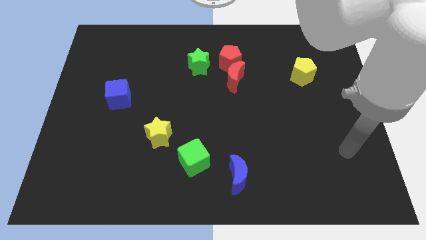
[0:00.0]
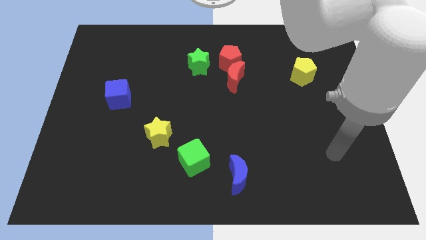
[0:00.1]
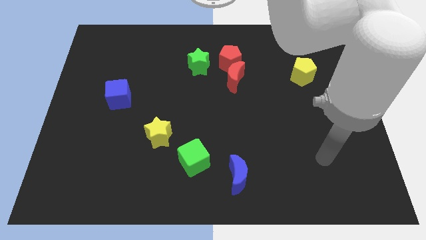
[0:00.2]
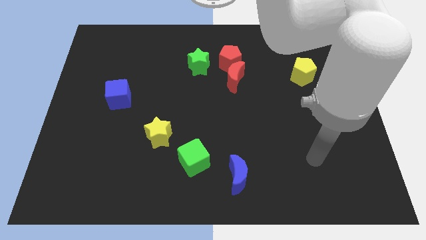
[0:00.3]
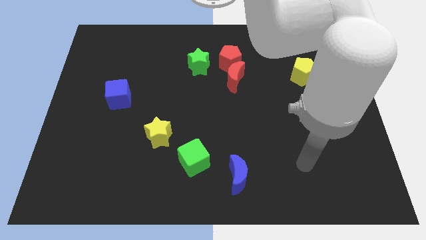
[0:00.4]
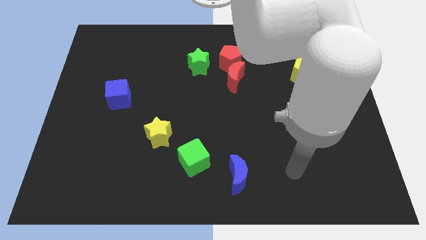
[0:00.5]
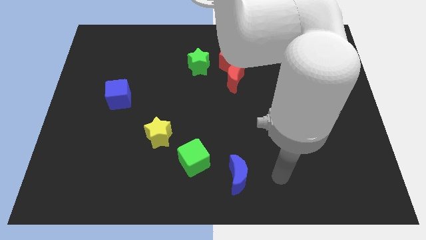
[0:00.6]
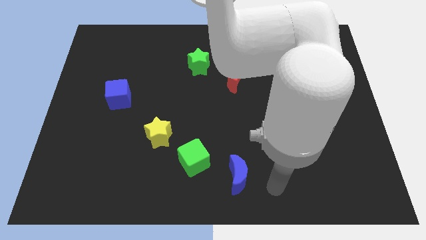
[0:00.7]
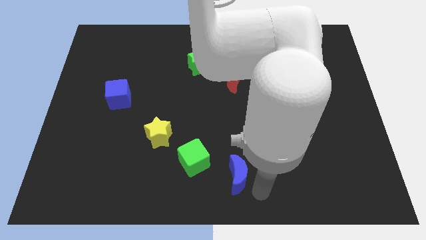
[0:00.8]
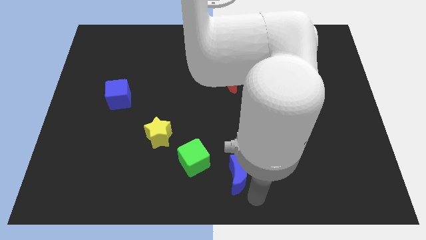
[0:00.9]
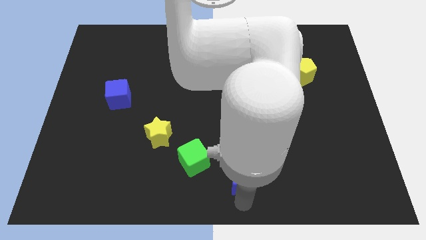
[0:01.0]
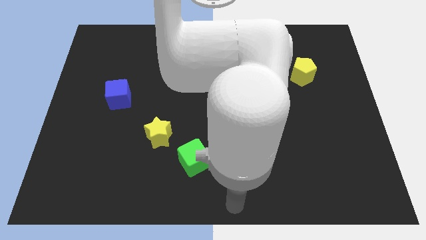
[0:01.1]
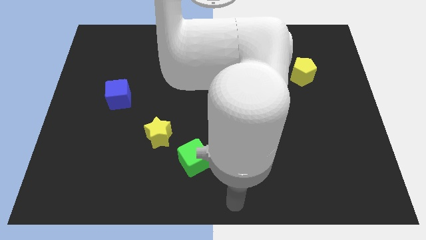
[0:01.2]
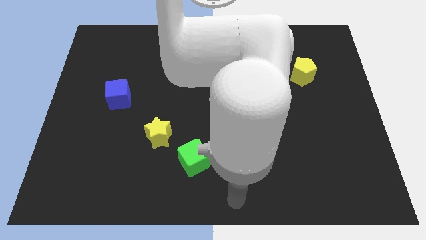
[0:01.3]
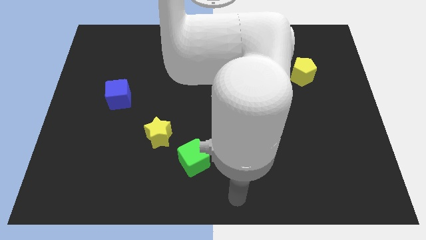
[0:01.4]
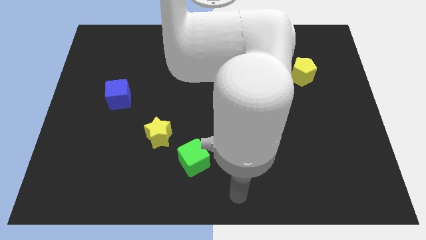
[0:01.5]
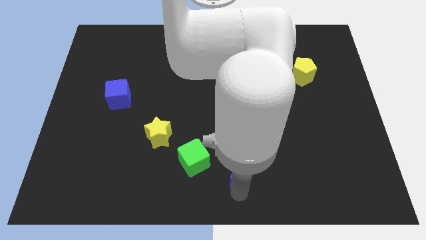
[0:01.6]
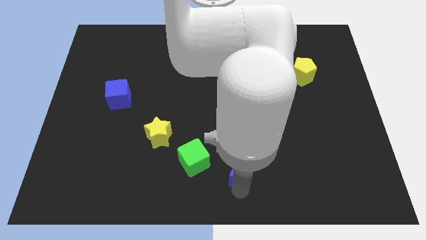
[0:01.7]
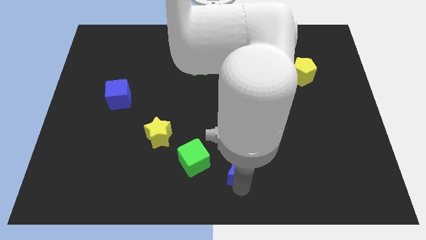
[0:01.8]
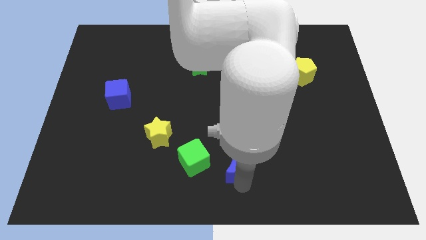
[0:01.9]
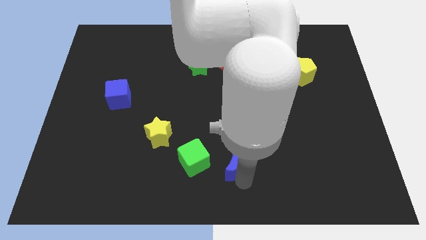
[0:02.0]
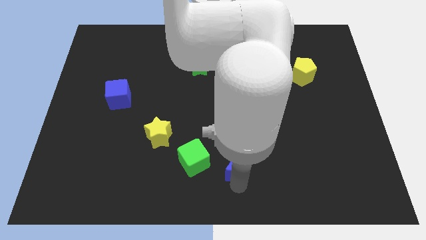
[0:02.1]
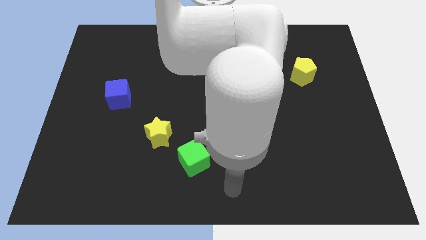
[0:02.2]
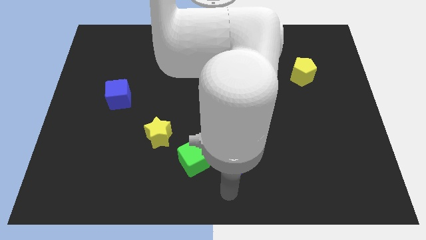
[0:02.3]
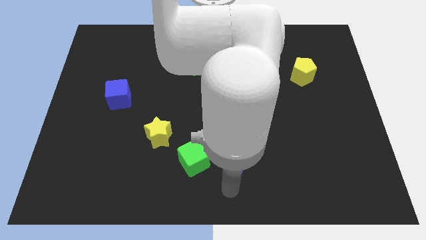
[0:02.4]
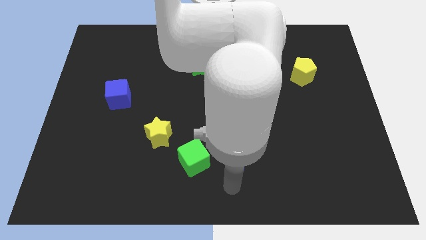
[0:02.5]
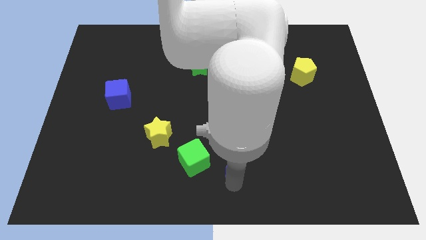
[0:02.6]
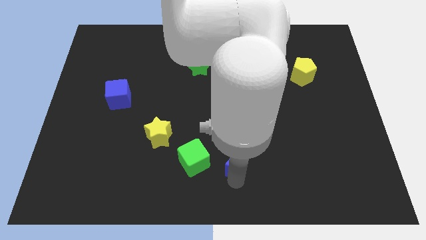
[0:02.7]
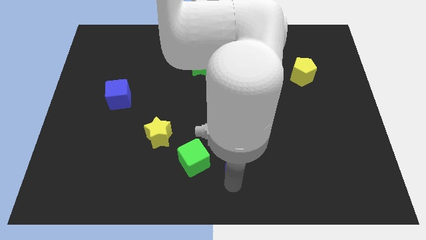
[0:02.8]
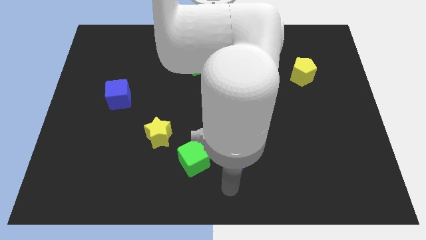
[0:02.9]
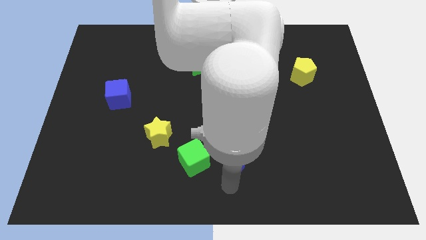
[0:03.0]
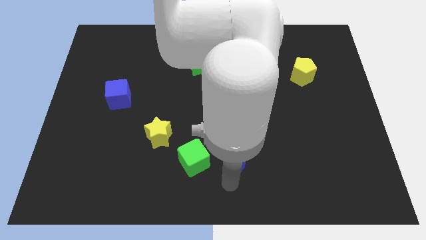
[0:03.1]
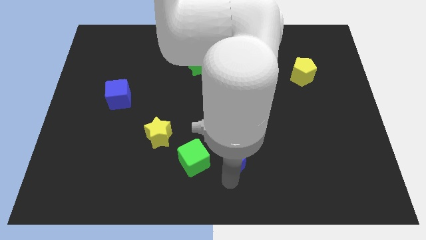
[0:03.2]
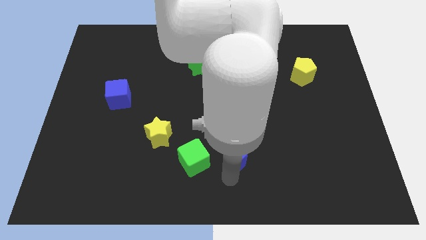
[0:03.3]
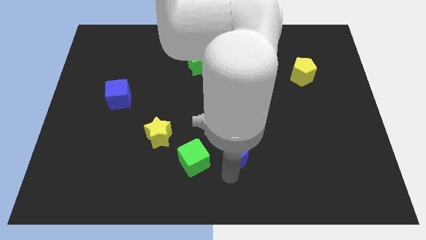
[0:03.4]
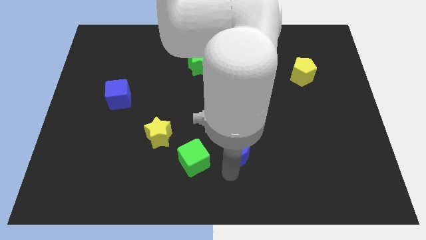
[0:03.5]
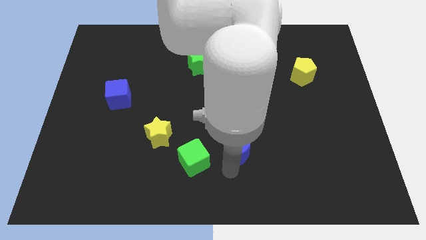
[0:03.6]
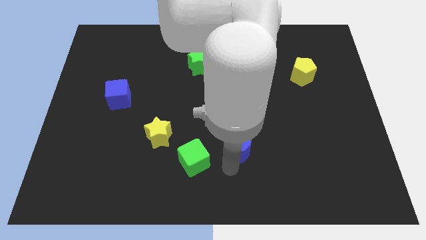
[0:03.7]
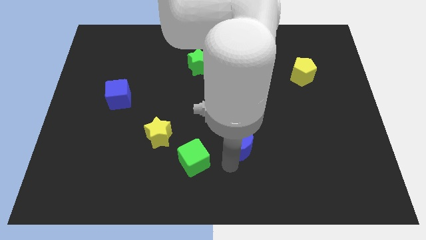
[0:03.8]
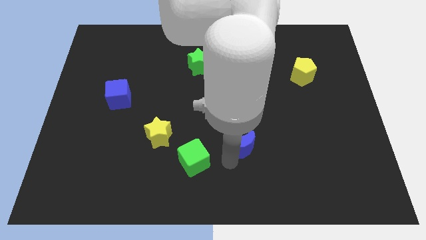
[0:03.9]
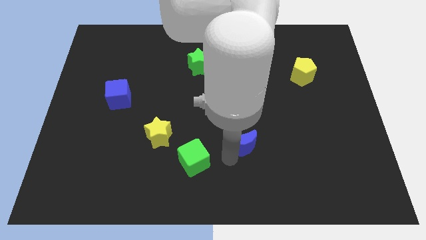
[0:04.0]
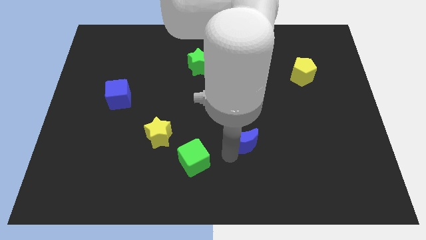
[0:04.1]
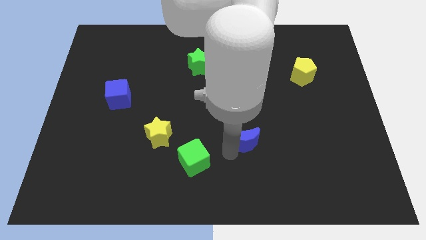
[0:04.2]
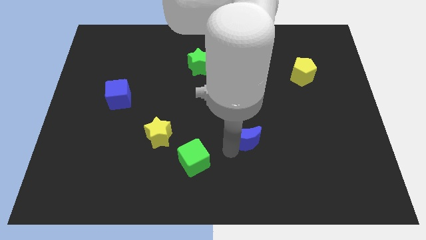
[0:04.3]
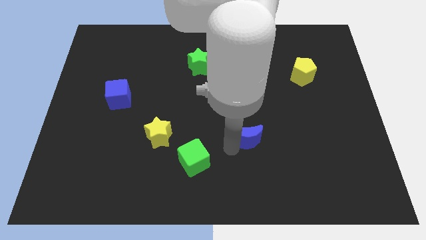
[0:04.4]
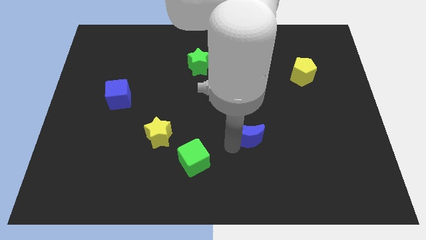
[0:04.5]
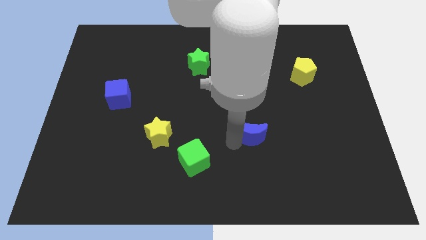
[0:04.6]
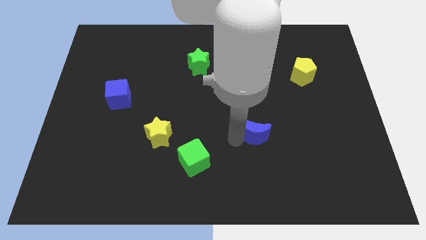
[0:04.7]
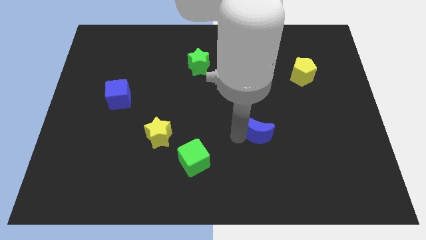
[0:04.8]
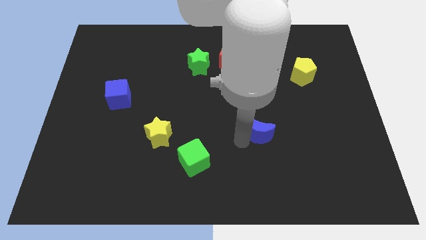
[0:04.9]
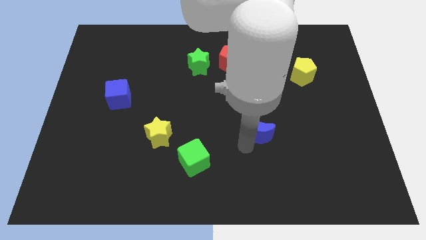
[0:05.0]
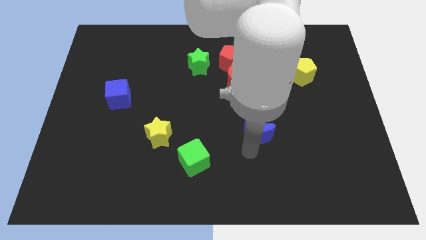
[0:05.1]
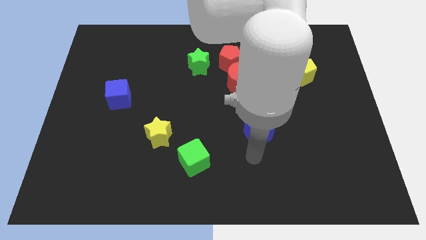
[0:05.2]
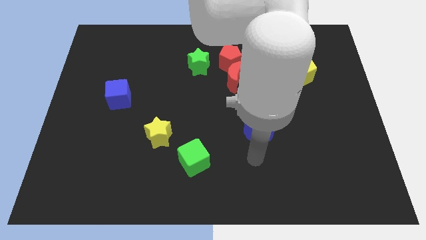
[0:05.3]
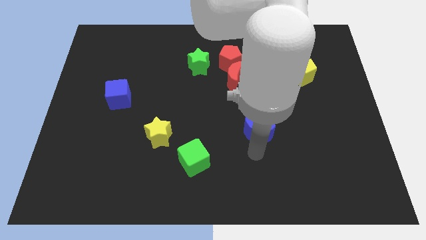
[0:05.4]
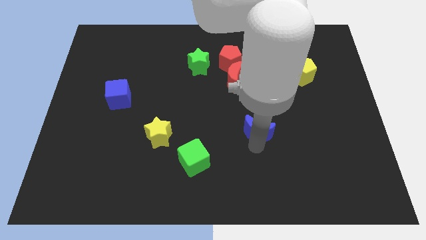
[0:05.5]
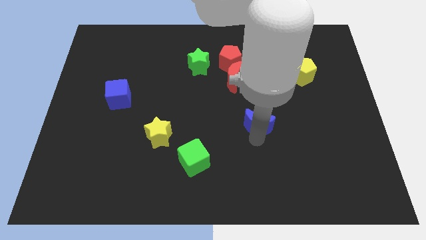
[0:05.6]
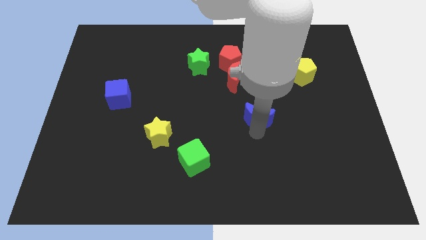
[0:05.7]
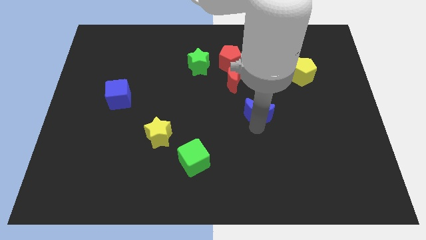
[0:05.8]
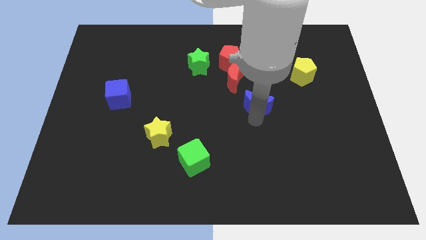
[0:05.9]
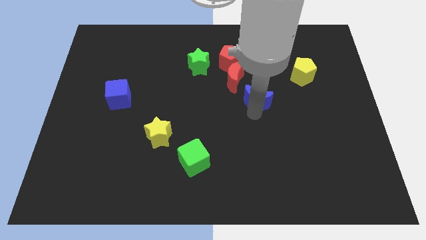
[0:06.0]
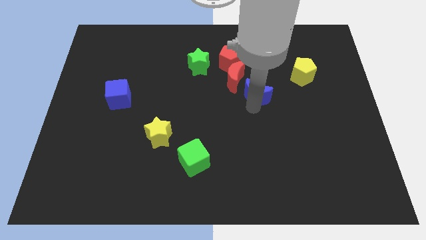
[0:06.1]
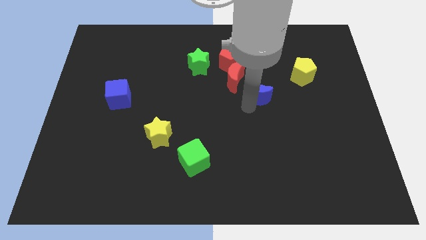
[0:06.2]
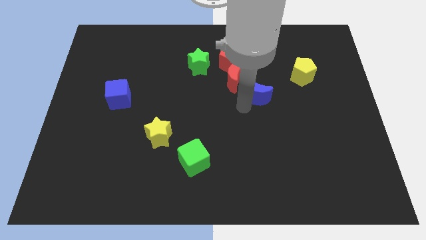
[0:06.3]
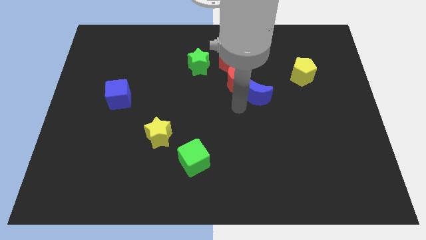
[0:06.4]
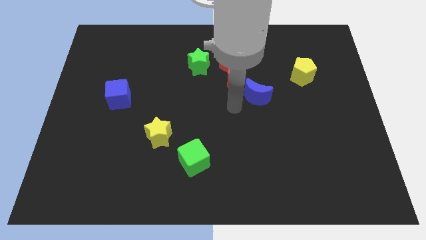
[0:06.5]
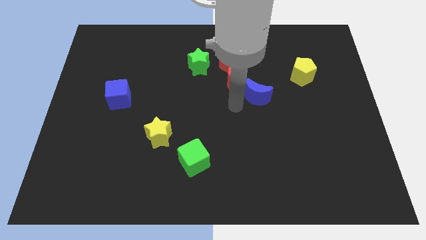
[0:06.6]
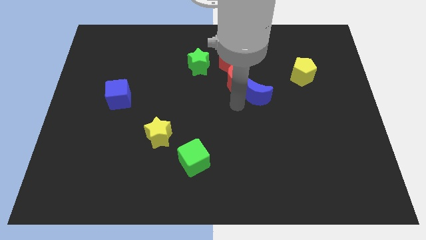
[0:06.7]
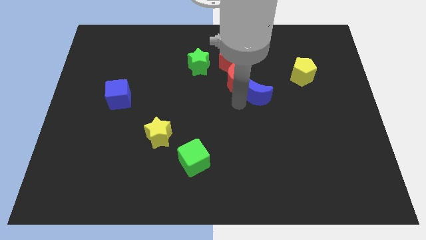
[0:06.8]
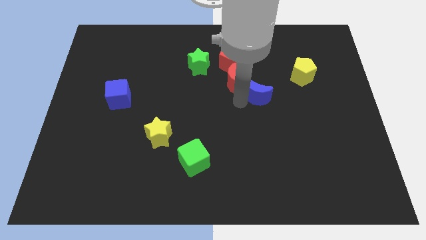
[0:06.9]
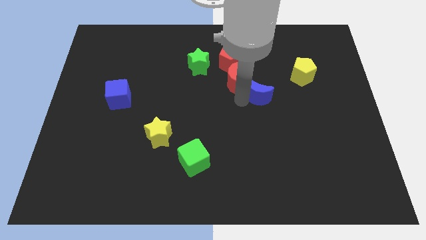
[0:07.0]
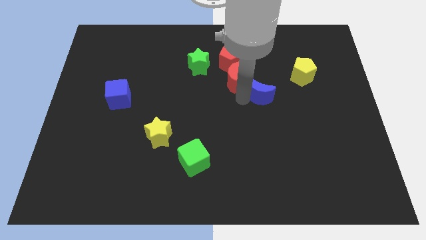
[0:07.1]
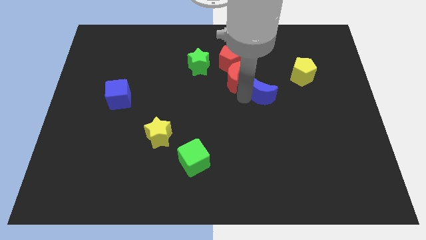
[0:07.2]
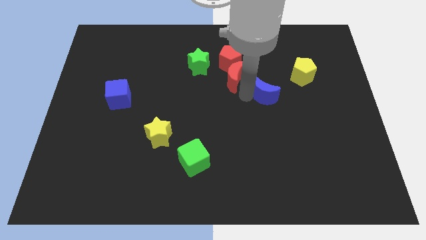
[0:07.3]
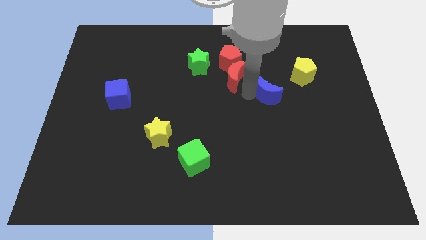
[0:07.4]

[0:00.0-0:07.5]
move the blue moon to the right of the red moon
